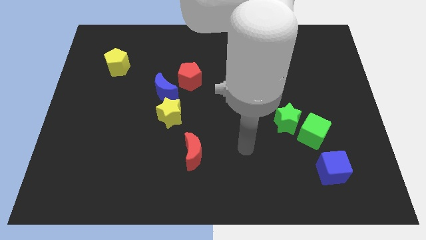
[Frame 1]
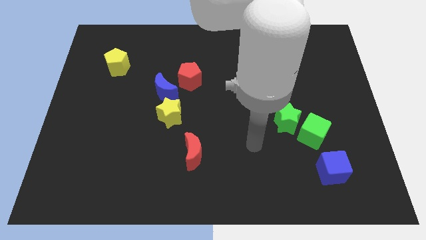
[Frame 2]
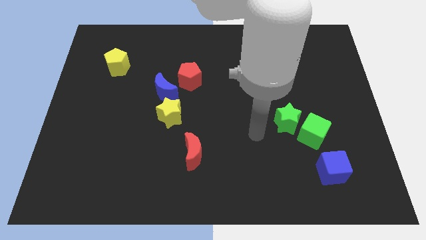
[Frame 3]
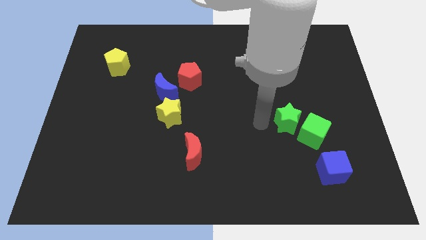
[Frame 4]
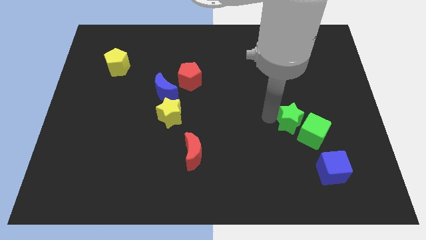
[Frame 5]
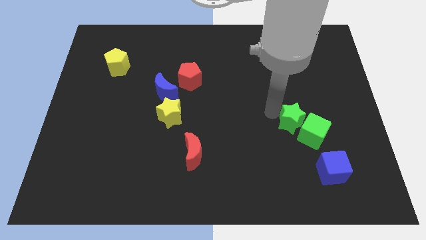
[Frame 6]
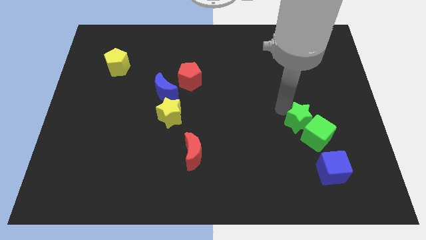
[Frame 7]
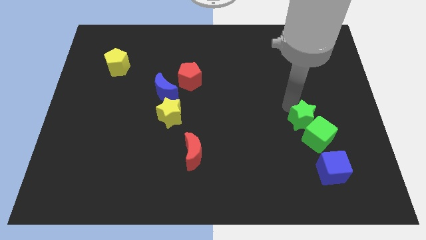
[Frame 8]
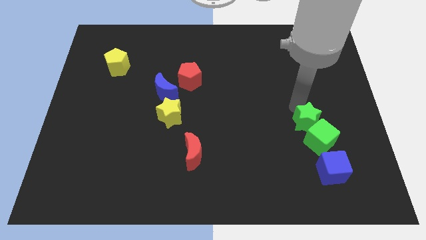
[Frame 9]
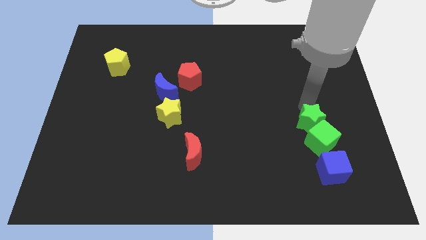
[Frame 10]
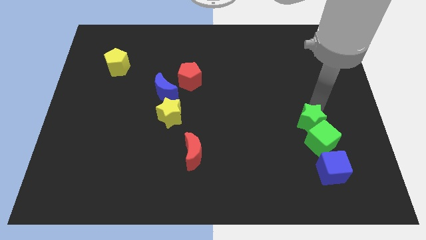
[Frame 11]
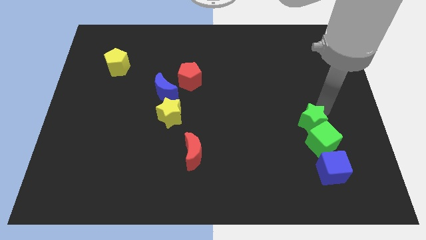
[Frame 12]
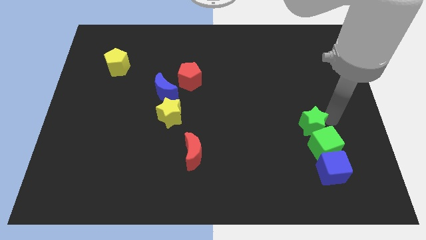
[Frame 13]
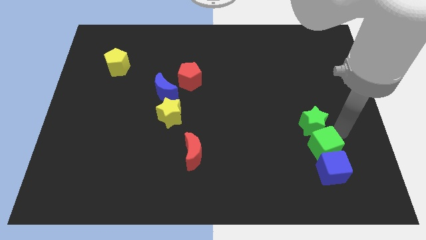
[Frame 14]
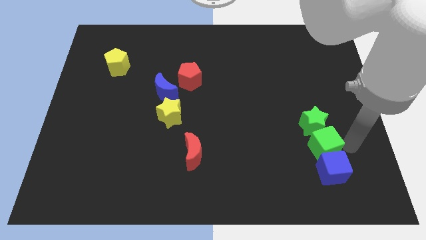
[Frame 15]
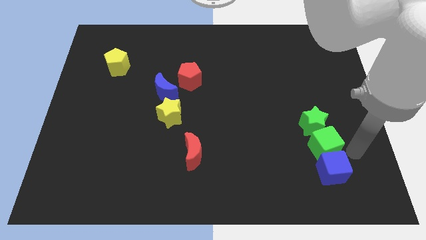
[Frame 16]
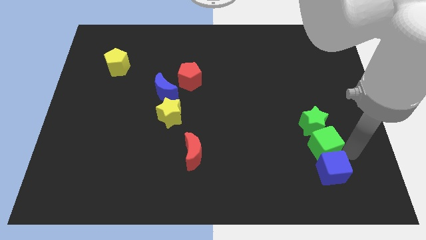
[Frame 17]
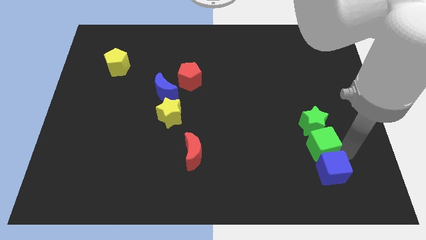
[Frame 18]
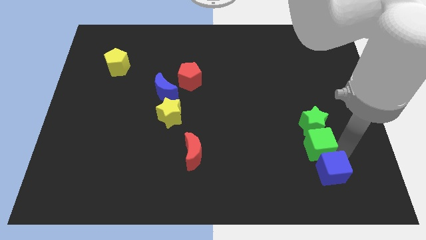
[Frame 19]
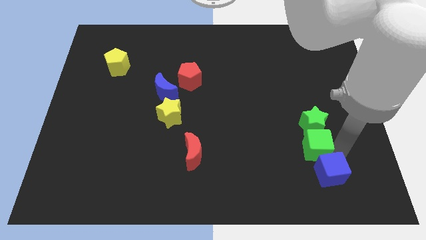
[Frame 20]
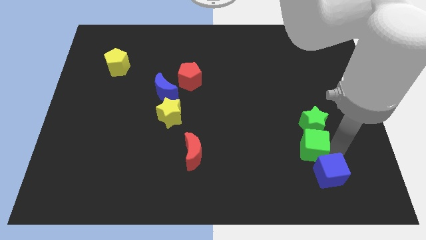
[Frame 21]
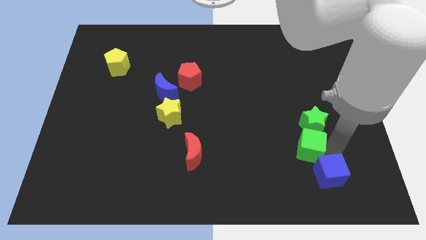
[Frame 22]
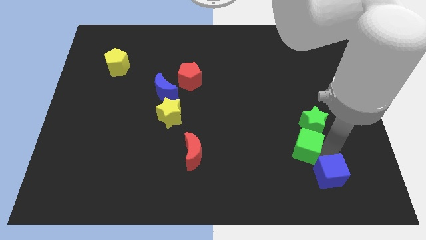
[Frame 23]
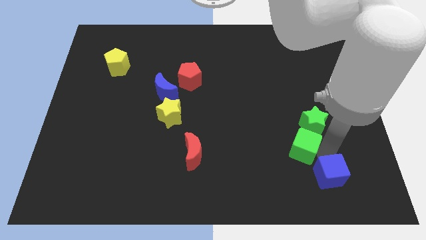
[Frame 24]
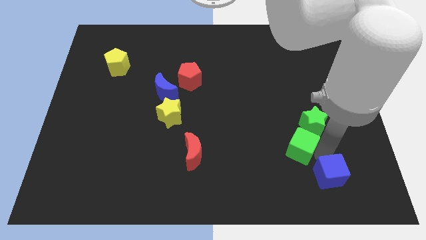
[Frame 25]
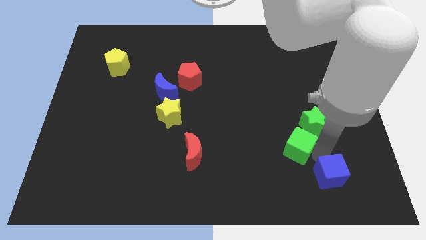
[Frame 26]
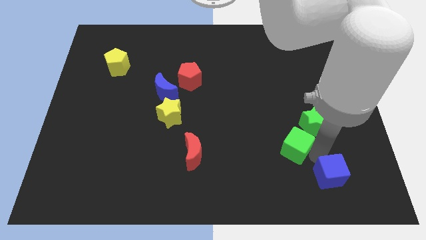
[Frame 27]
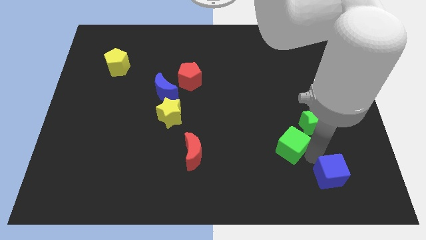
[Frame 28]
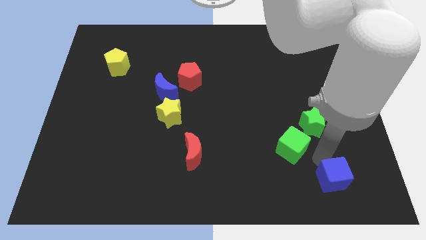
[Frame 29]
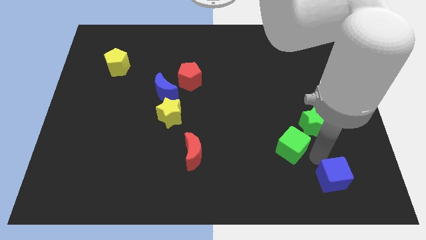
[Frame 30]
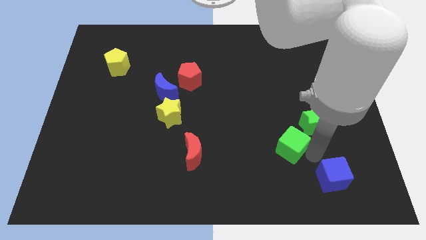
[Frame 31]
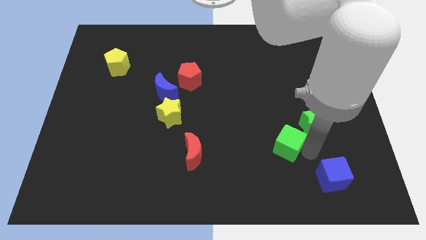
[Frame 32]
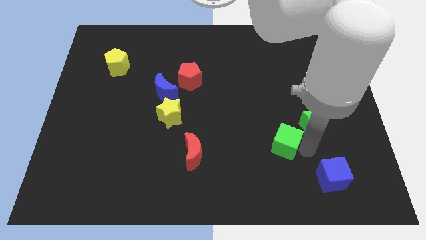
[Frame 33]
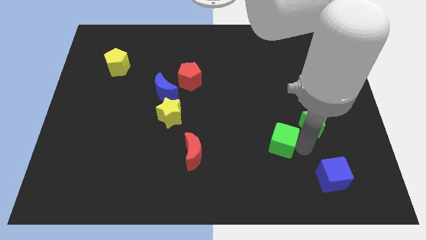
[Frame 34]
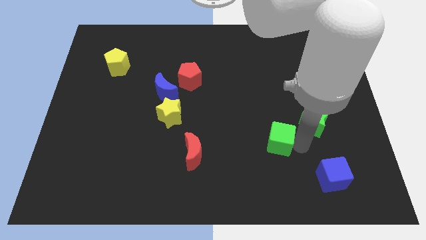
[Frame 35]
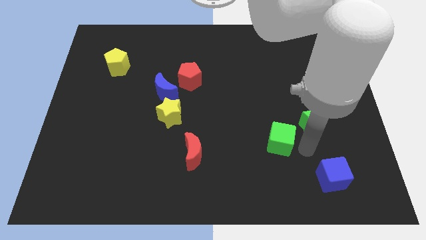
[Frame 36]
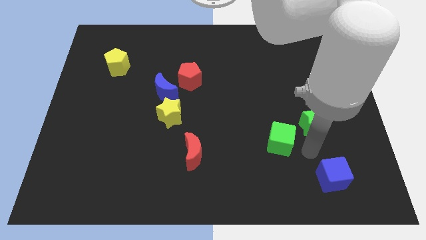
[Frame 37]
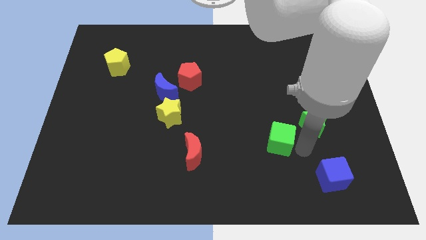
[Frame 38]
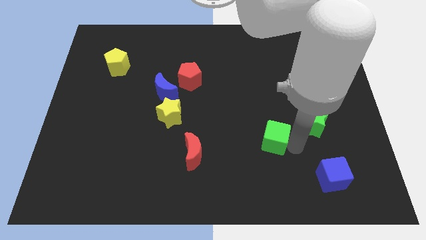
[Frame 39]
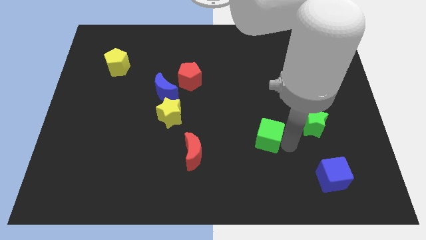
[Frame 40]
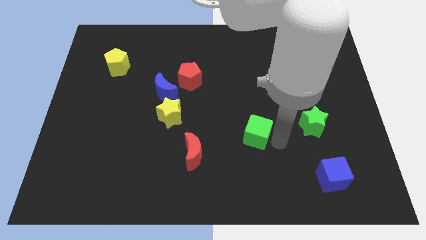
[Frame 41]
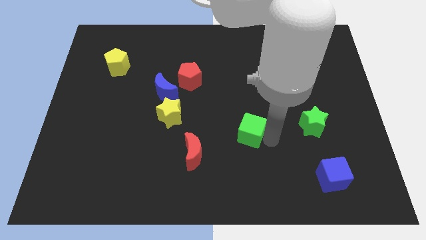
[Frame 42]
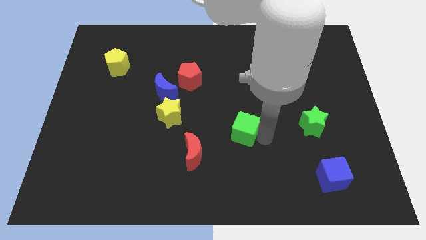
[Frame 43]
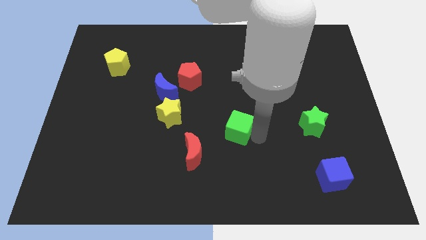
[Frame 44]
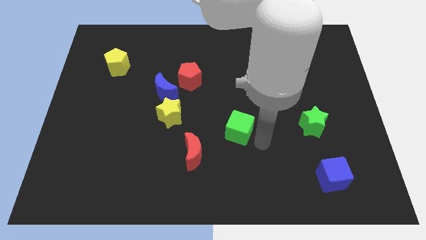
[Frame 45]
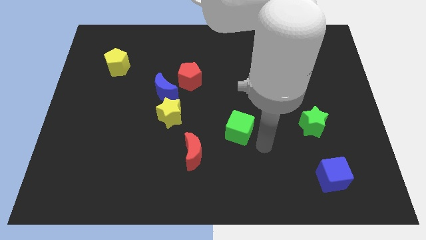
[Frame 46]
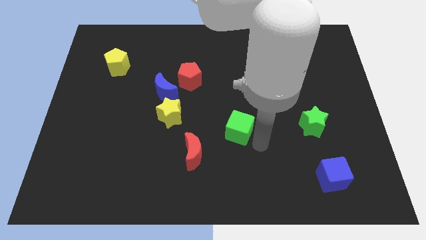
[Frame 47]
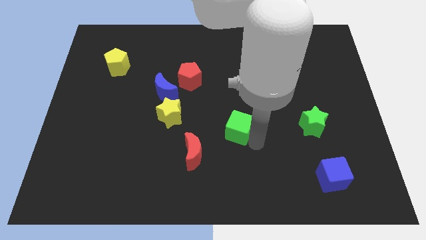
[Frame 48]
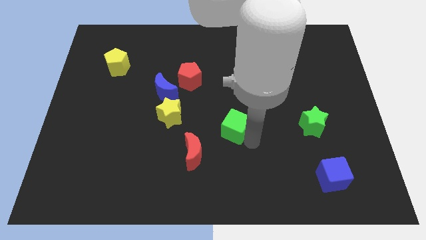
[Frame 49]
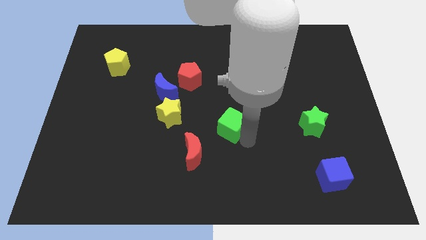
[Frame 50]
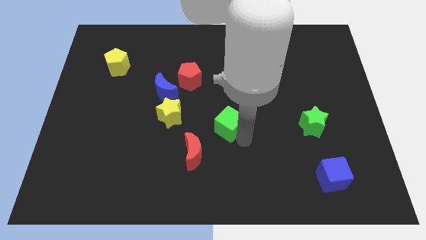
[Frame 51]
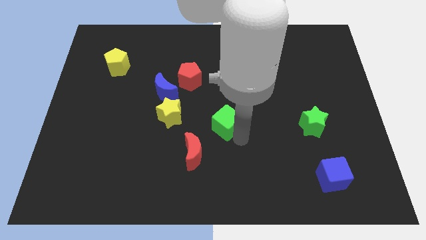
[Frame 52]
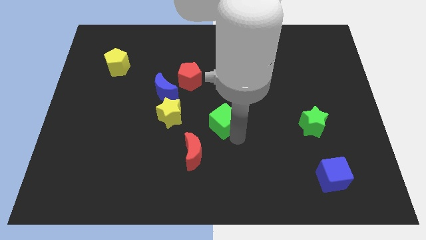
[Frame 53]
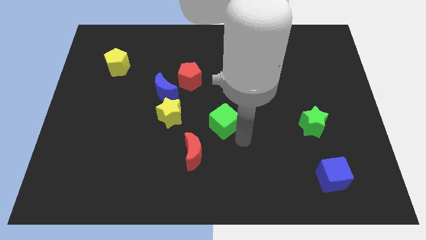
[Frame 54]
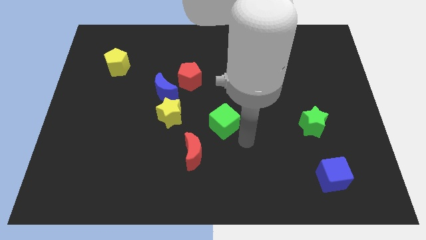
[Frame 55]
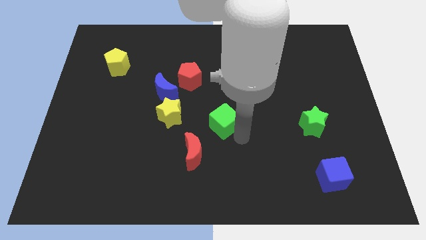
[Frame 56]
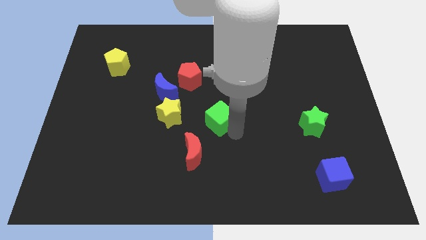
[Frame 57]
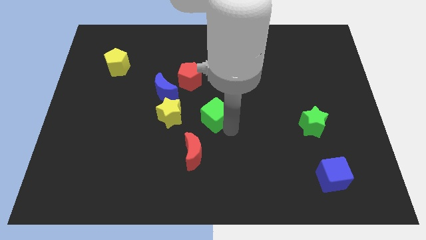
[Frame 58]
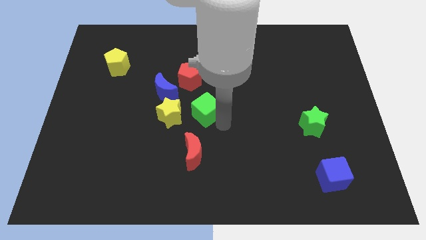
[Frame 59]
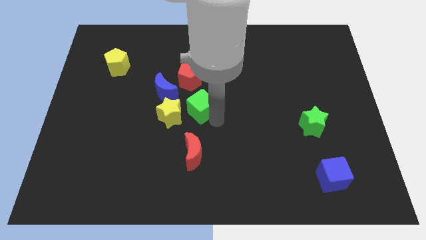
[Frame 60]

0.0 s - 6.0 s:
slide the green cube to the top right of the yellow star

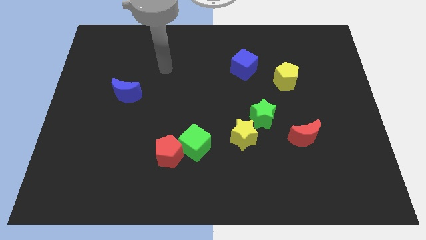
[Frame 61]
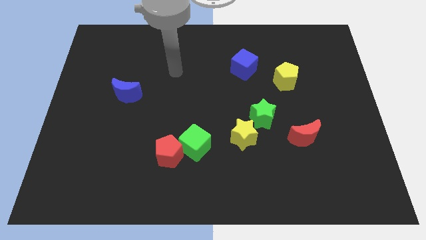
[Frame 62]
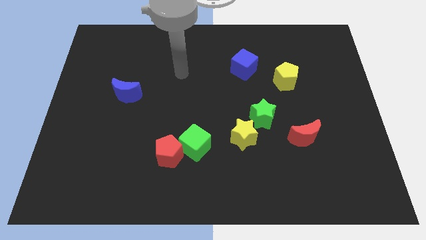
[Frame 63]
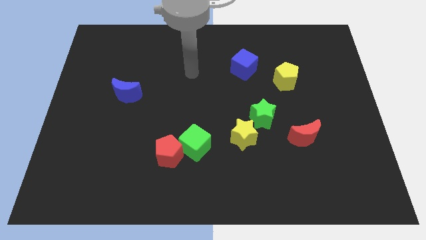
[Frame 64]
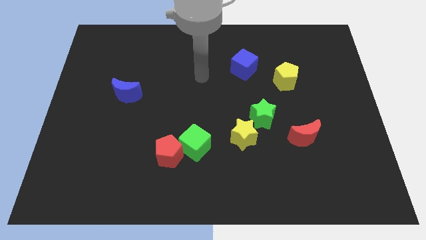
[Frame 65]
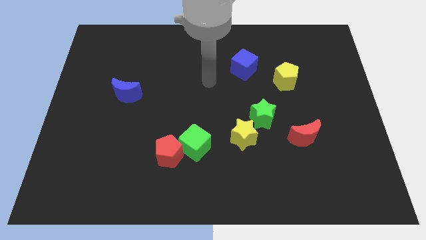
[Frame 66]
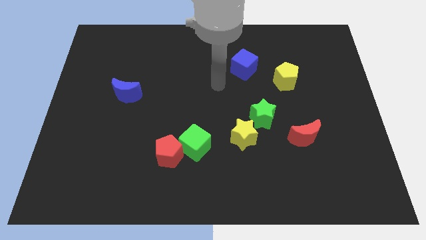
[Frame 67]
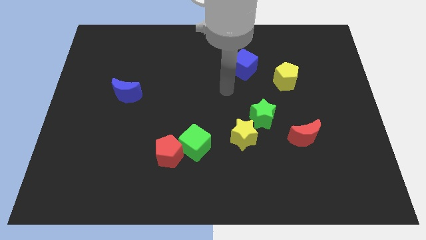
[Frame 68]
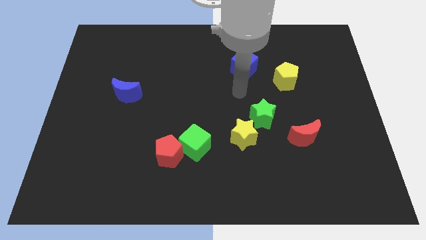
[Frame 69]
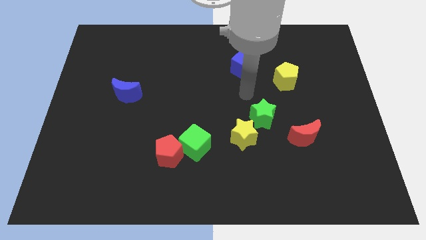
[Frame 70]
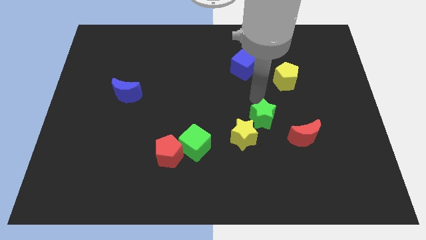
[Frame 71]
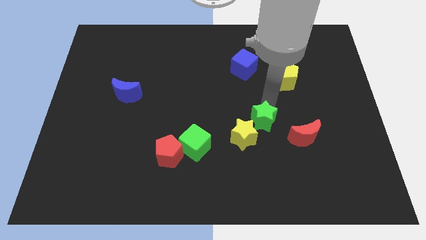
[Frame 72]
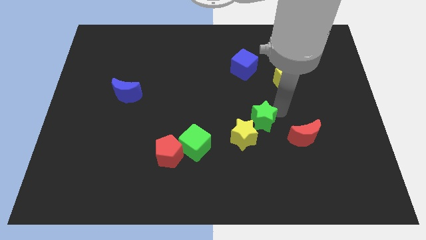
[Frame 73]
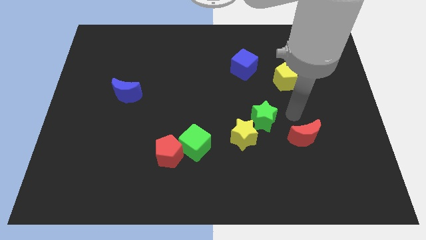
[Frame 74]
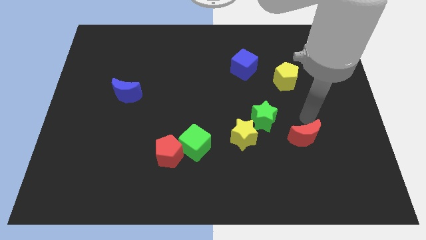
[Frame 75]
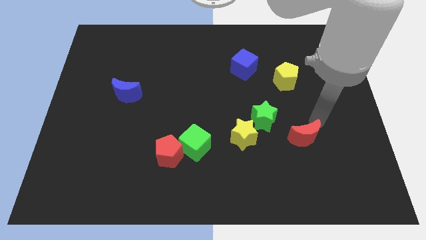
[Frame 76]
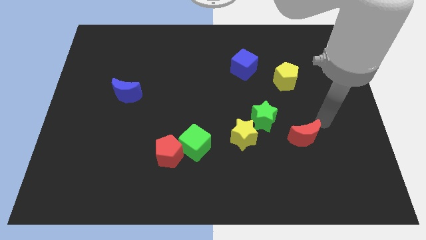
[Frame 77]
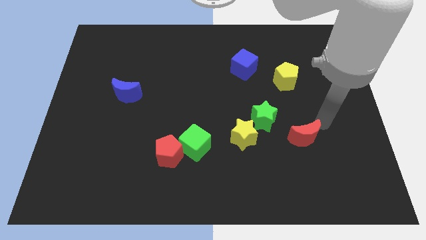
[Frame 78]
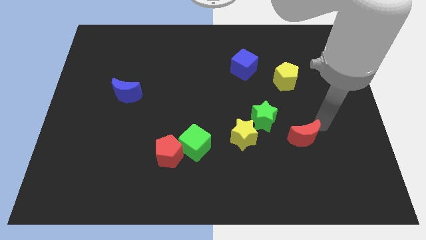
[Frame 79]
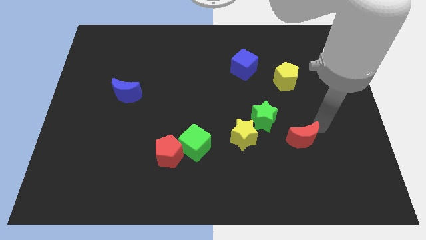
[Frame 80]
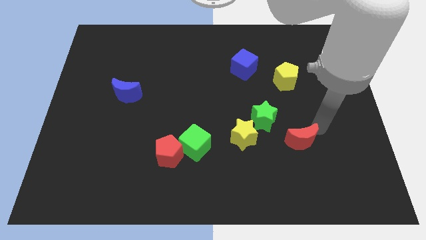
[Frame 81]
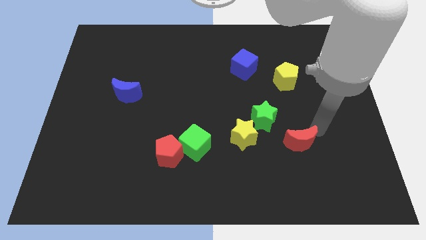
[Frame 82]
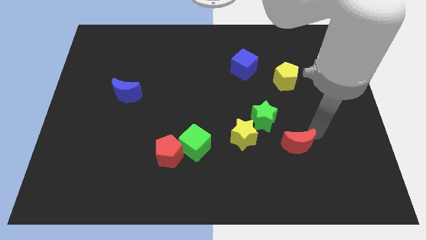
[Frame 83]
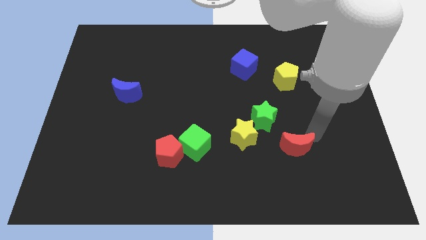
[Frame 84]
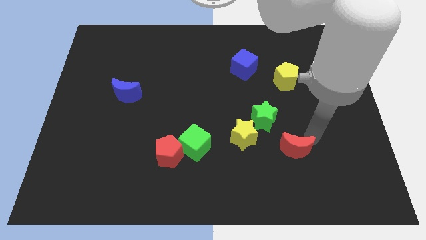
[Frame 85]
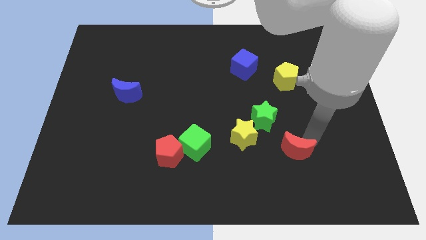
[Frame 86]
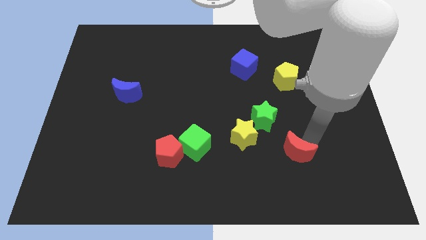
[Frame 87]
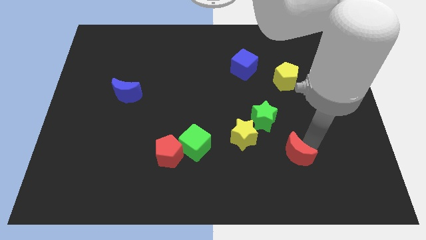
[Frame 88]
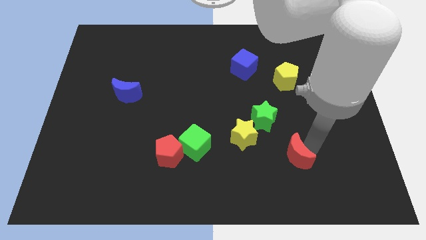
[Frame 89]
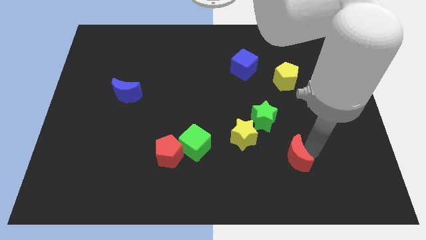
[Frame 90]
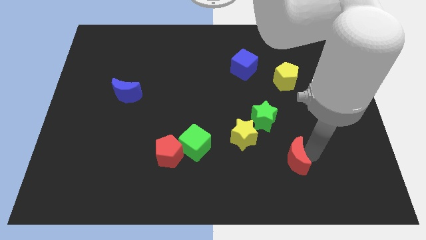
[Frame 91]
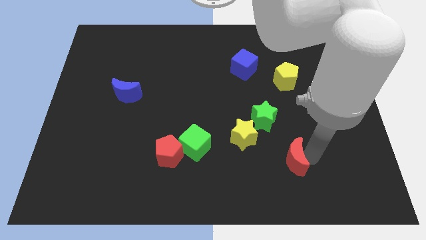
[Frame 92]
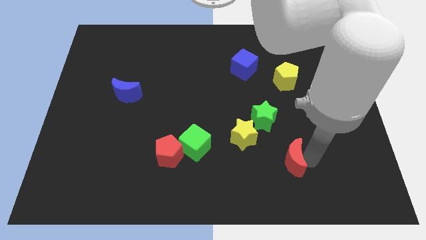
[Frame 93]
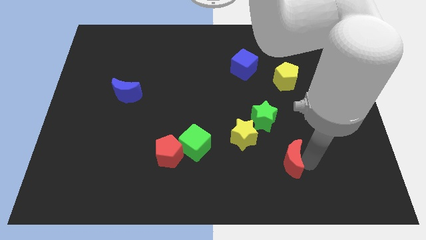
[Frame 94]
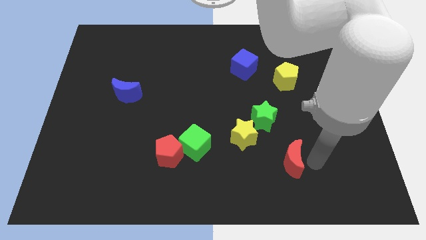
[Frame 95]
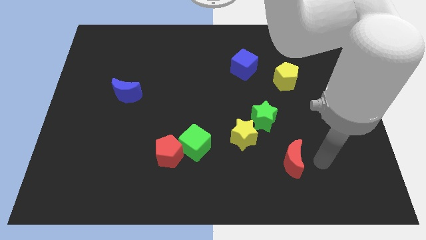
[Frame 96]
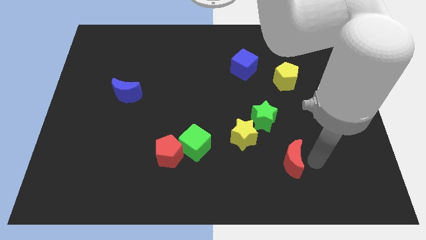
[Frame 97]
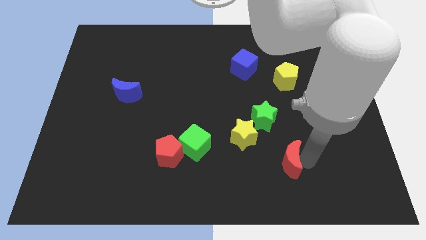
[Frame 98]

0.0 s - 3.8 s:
move the red moon to the bottom side of the green star
